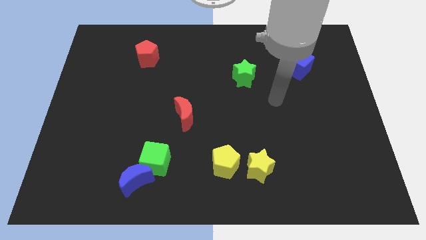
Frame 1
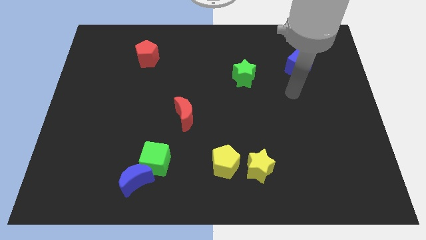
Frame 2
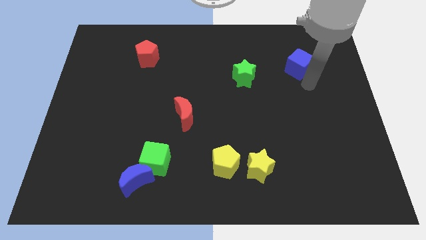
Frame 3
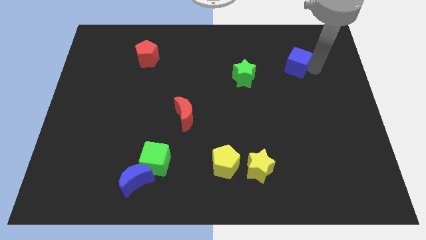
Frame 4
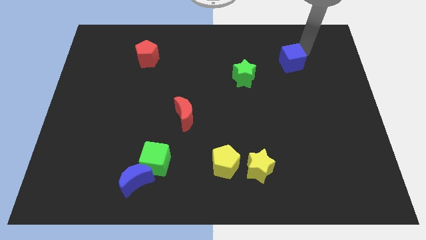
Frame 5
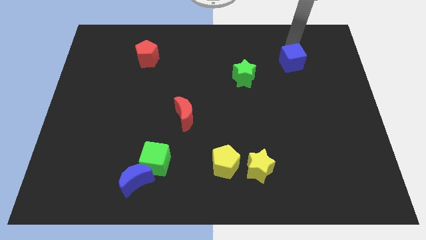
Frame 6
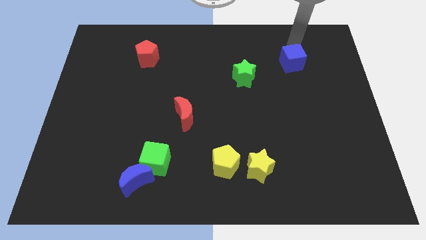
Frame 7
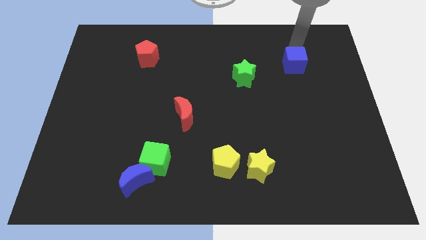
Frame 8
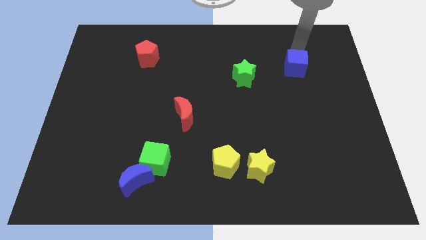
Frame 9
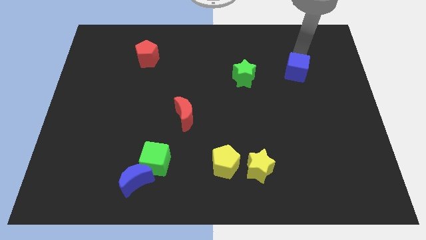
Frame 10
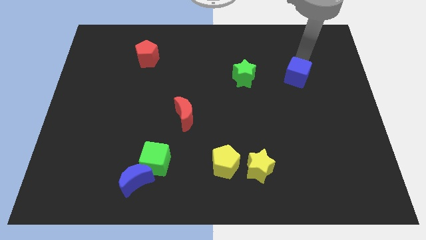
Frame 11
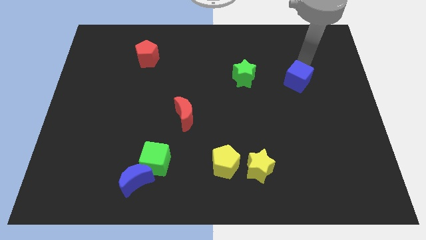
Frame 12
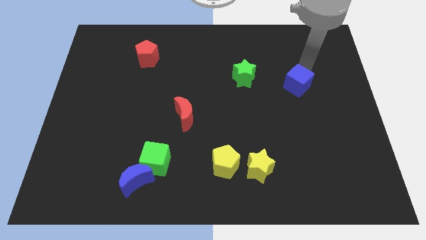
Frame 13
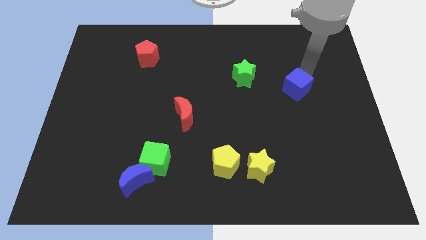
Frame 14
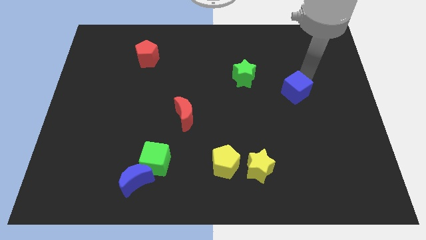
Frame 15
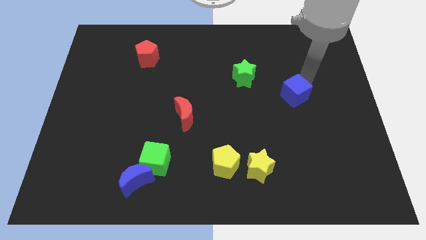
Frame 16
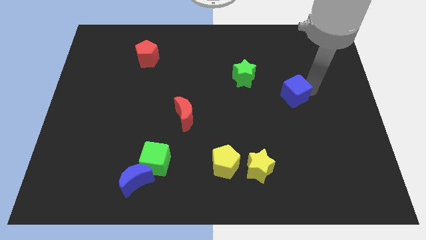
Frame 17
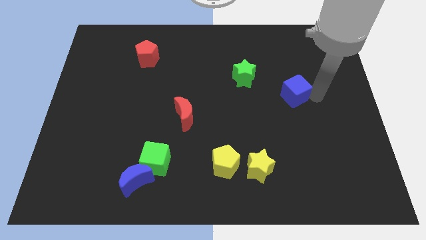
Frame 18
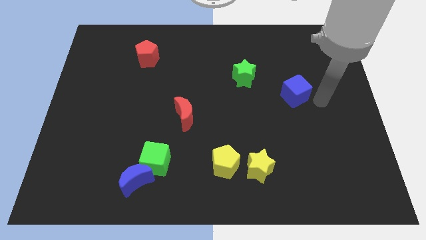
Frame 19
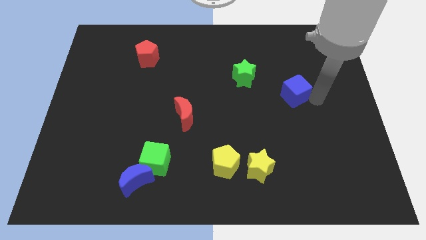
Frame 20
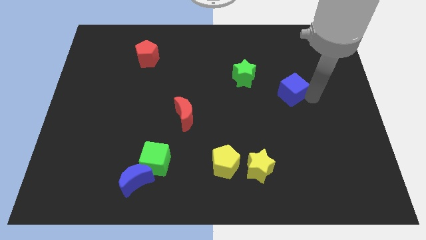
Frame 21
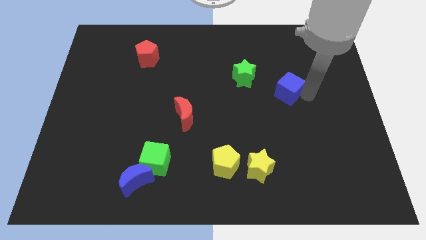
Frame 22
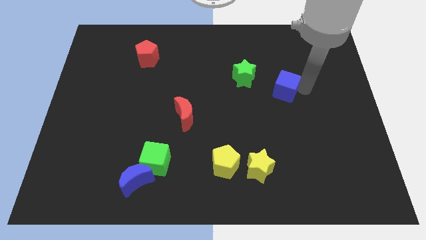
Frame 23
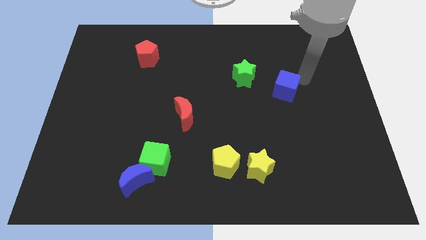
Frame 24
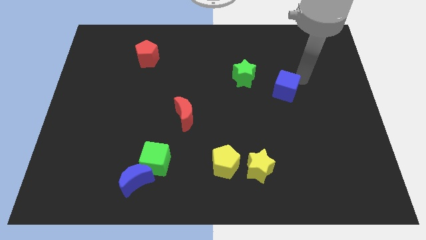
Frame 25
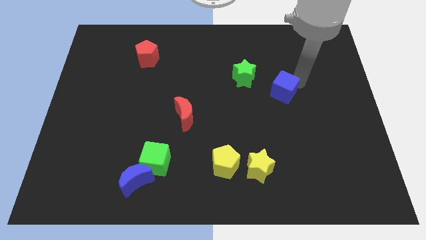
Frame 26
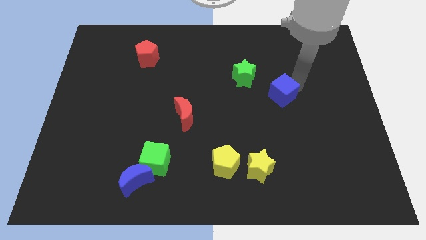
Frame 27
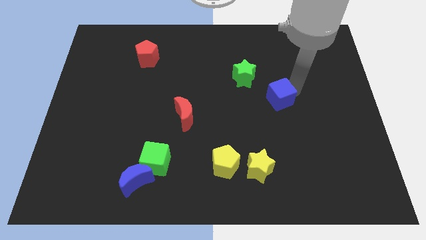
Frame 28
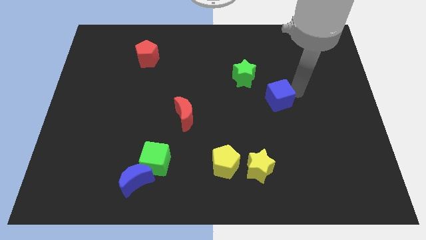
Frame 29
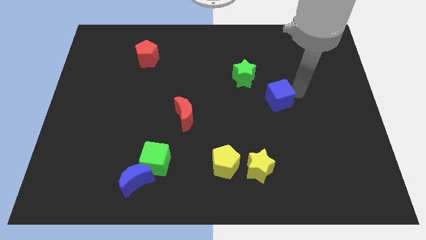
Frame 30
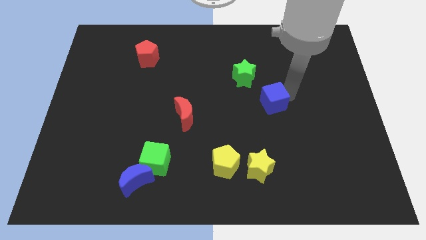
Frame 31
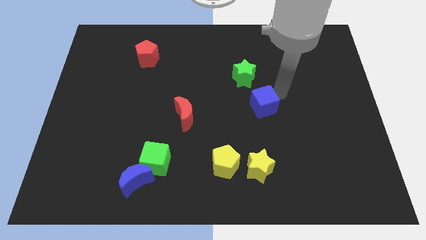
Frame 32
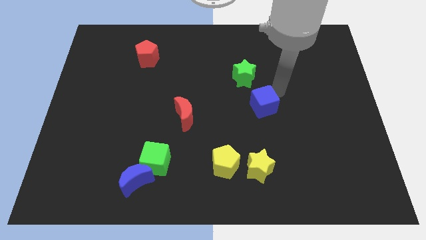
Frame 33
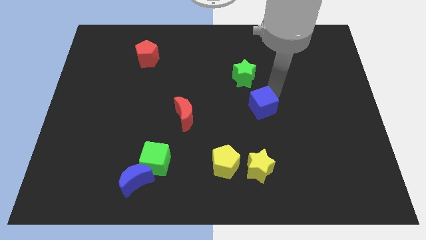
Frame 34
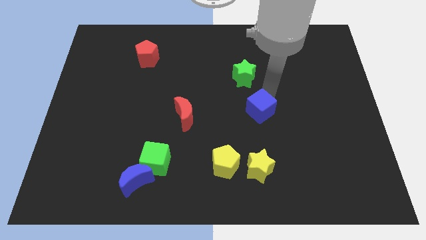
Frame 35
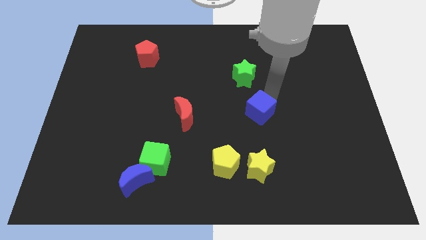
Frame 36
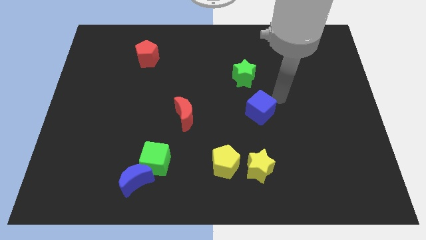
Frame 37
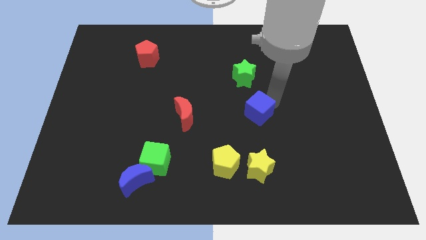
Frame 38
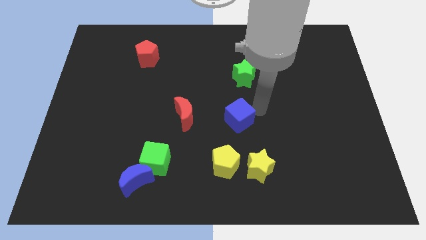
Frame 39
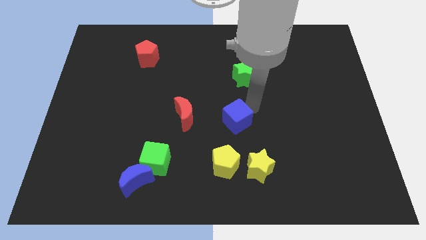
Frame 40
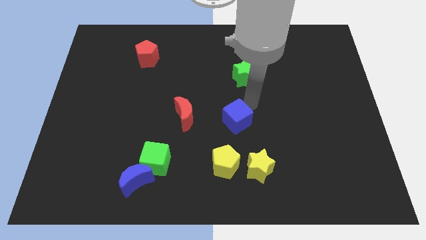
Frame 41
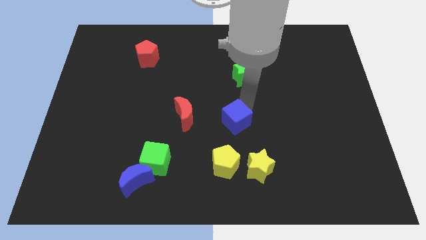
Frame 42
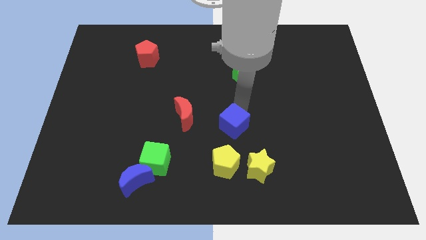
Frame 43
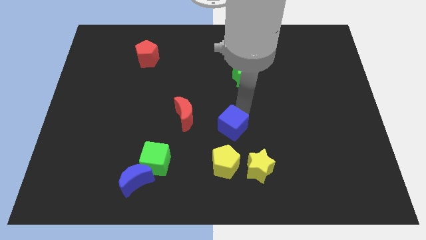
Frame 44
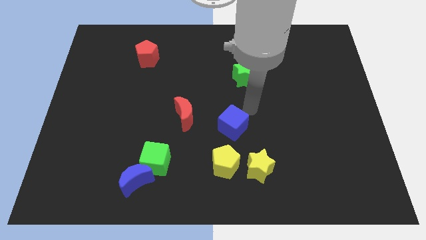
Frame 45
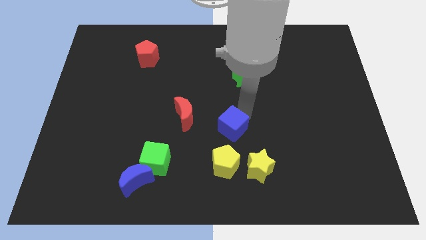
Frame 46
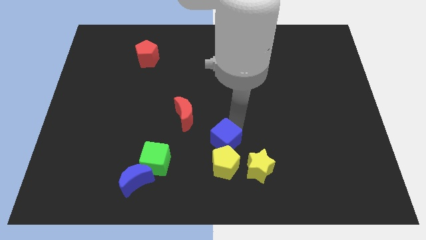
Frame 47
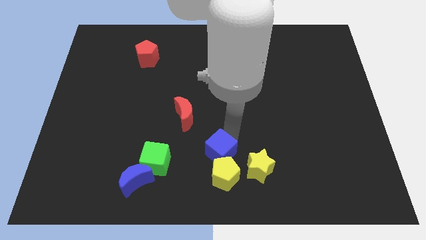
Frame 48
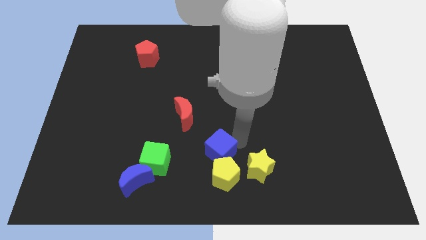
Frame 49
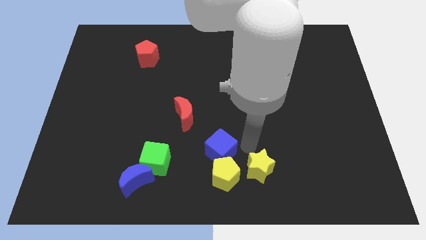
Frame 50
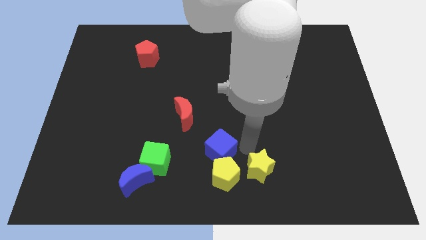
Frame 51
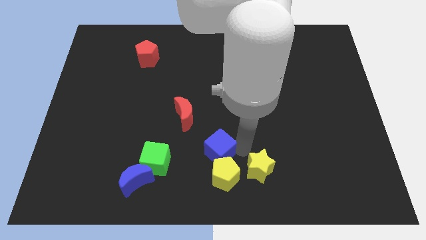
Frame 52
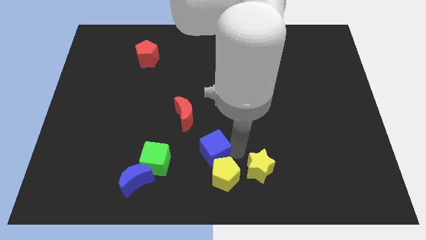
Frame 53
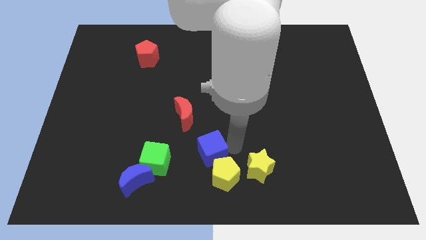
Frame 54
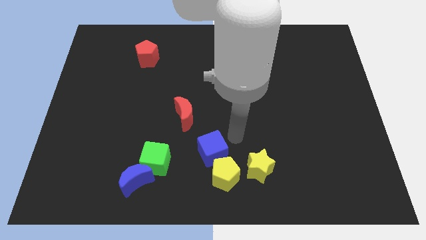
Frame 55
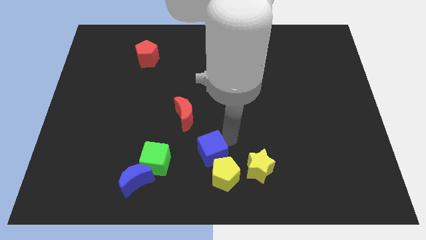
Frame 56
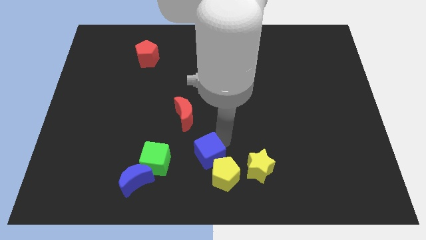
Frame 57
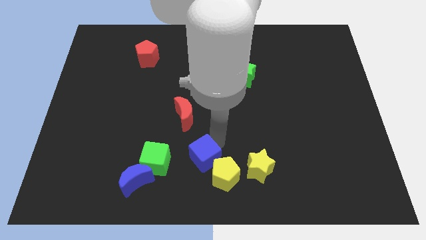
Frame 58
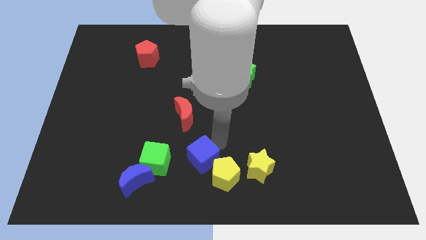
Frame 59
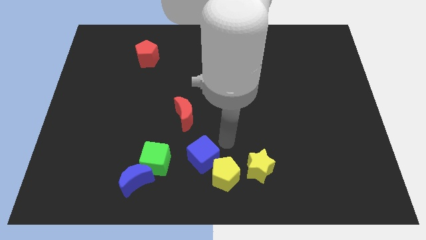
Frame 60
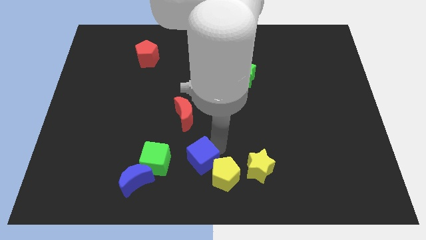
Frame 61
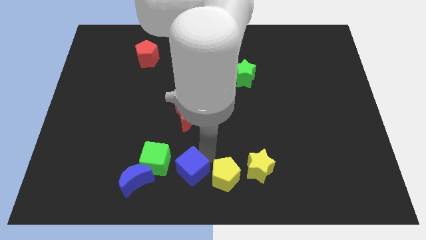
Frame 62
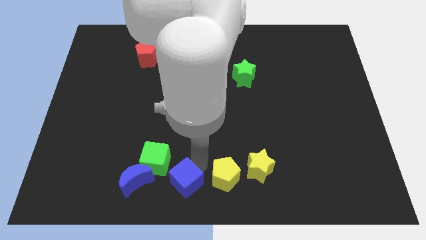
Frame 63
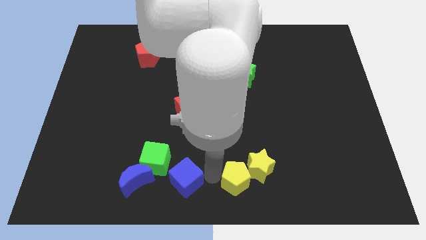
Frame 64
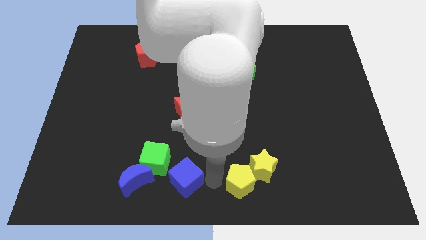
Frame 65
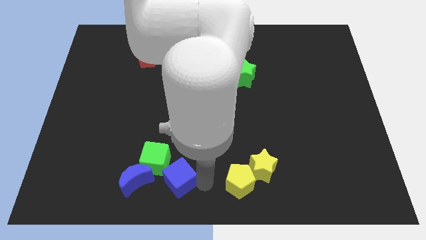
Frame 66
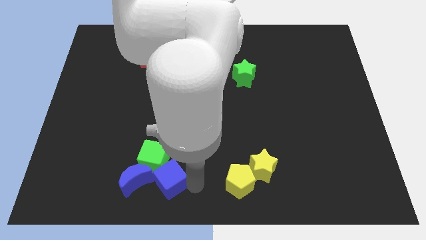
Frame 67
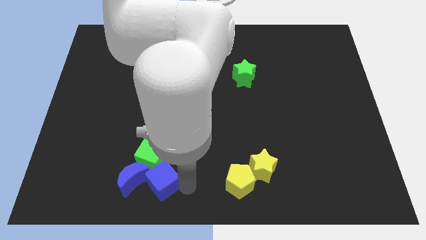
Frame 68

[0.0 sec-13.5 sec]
push the blue cube towards the blue moon
